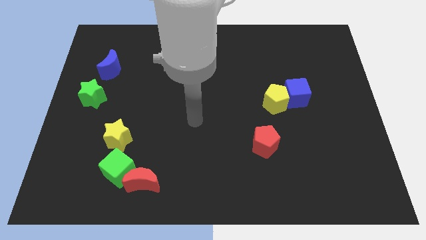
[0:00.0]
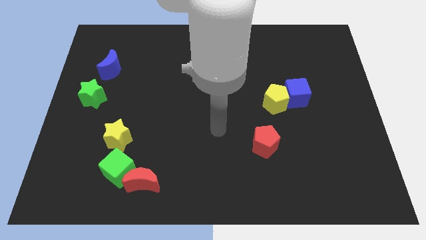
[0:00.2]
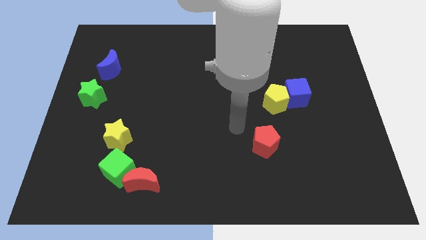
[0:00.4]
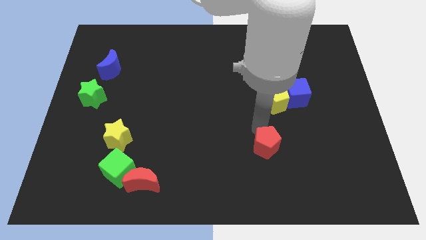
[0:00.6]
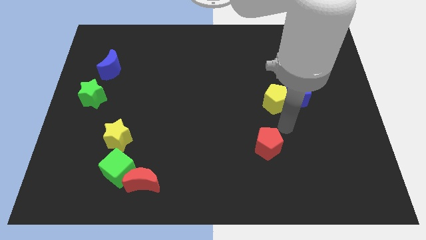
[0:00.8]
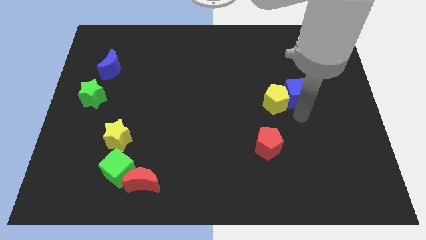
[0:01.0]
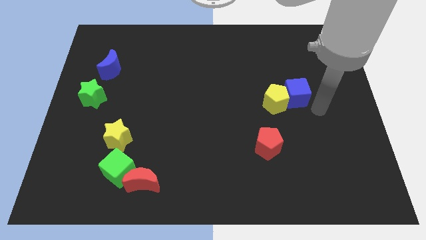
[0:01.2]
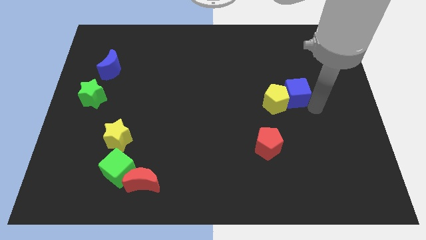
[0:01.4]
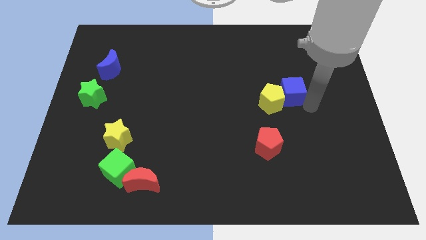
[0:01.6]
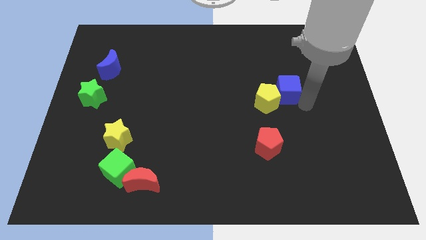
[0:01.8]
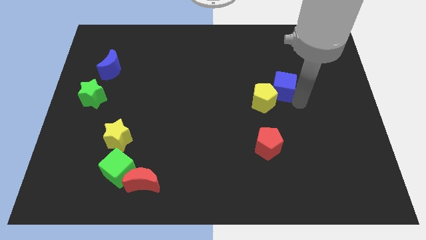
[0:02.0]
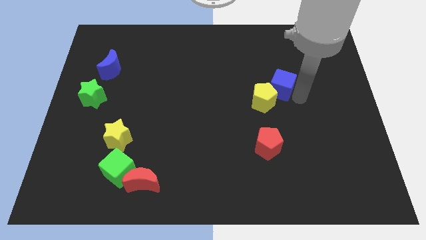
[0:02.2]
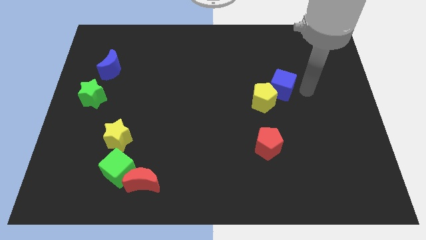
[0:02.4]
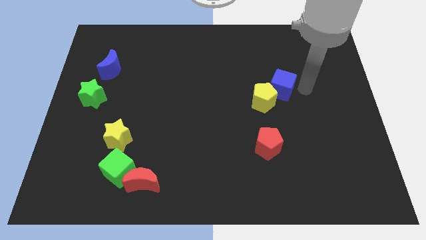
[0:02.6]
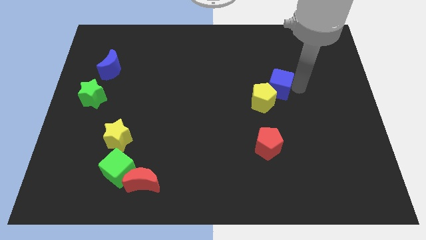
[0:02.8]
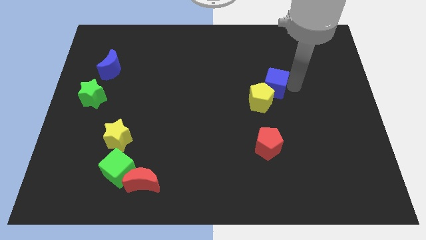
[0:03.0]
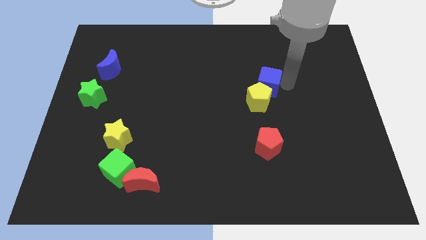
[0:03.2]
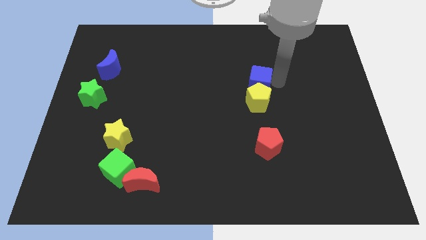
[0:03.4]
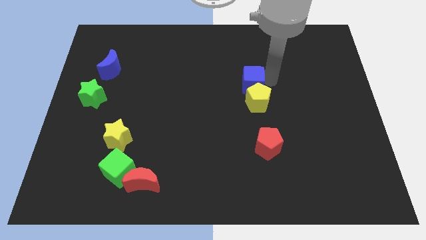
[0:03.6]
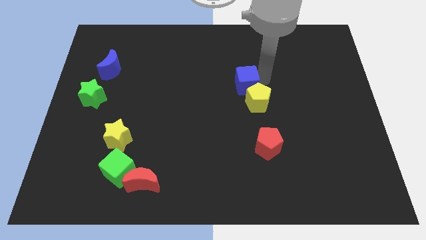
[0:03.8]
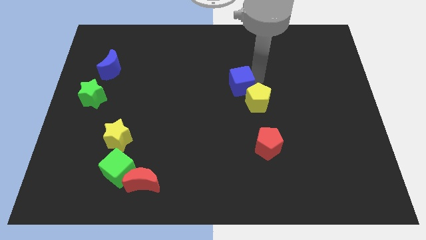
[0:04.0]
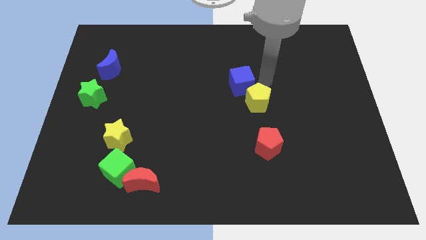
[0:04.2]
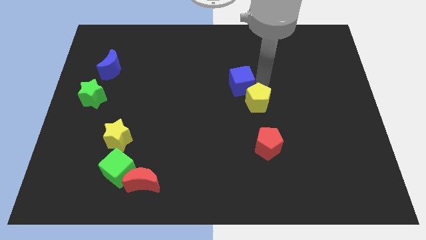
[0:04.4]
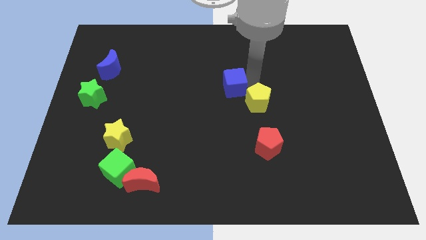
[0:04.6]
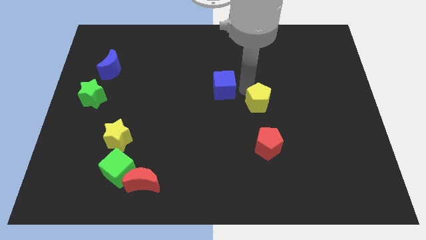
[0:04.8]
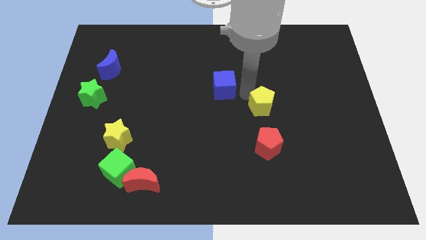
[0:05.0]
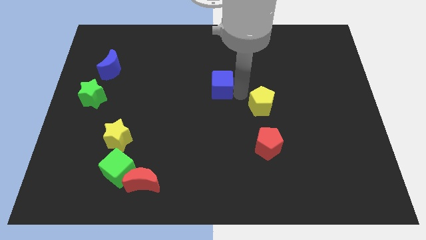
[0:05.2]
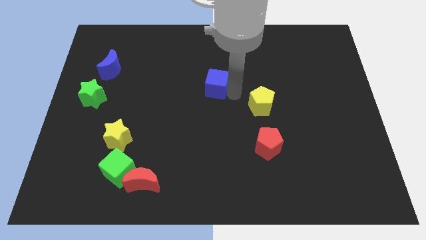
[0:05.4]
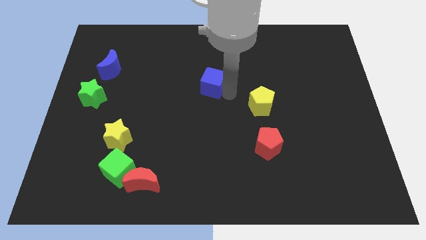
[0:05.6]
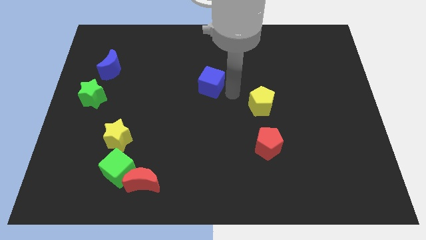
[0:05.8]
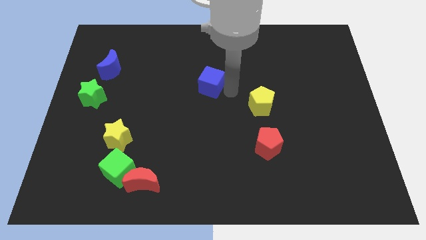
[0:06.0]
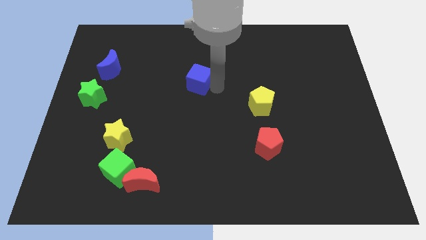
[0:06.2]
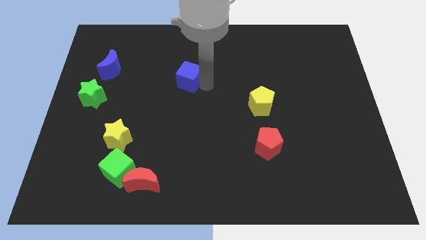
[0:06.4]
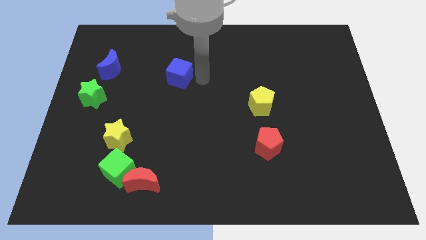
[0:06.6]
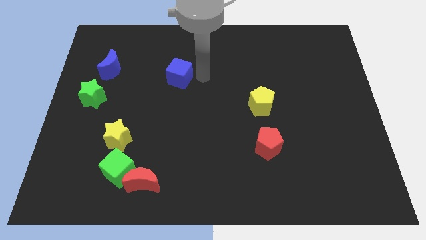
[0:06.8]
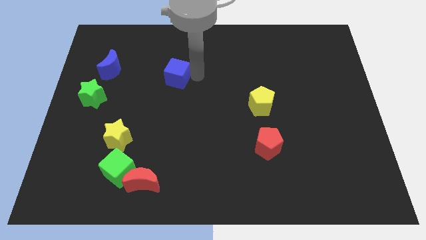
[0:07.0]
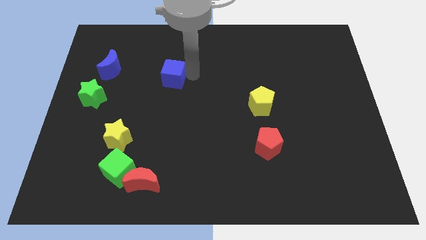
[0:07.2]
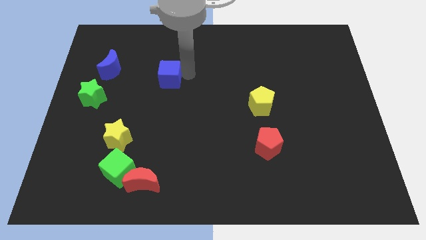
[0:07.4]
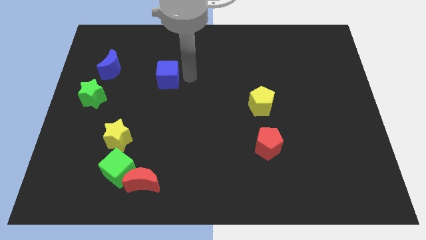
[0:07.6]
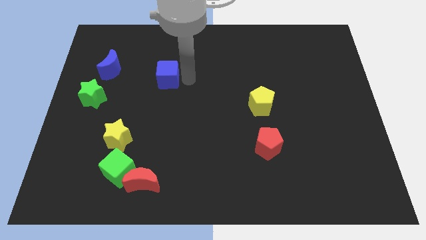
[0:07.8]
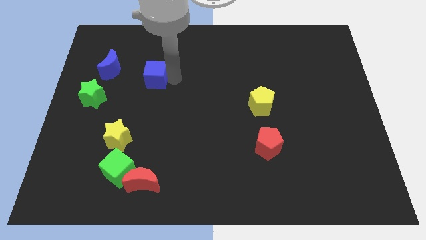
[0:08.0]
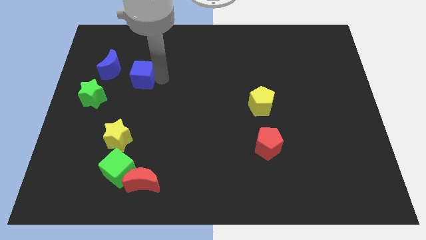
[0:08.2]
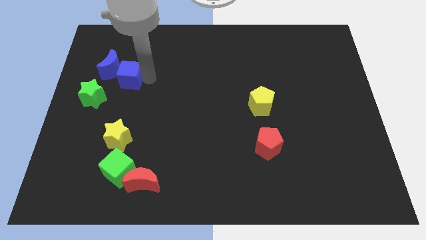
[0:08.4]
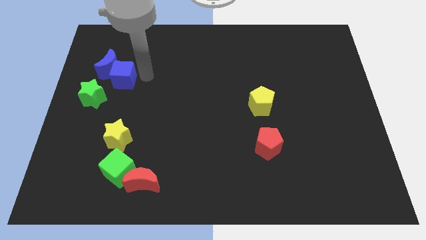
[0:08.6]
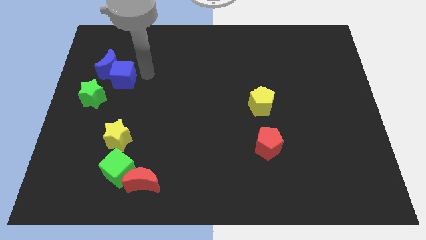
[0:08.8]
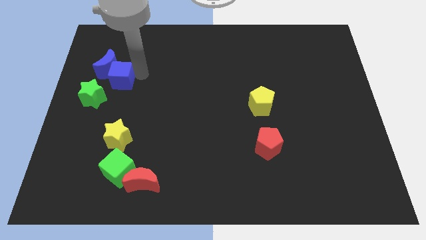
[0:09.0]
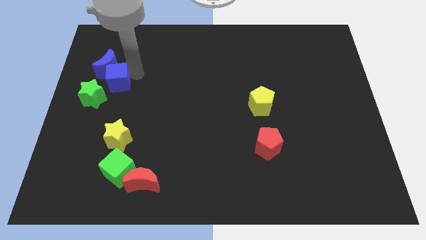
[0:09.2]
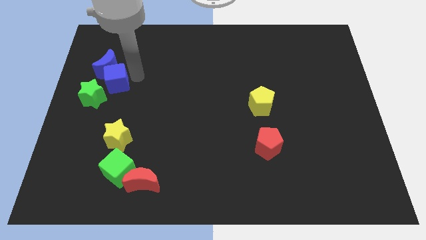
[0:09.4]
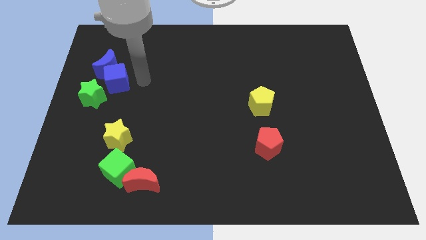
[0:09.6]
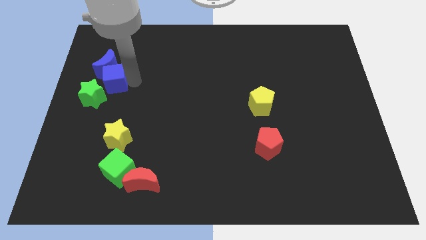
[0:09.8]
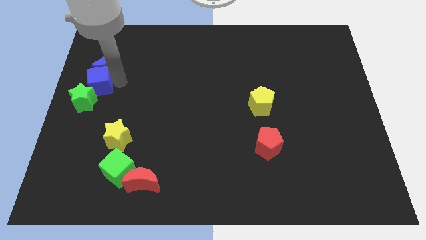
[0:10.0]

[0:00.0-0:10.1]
push the blue cube to the left side
